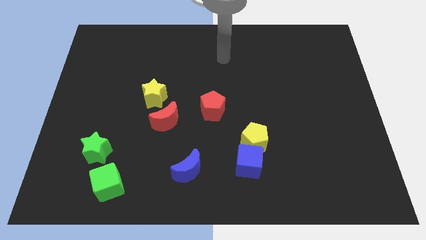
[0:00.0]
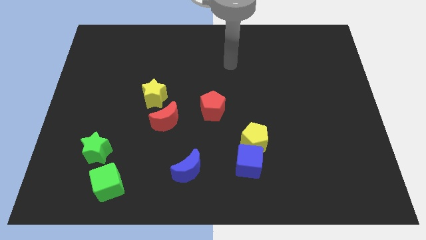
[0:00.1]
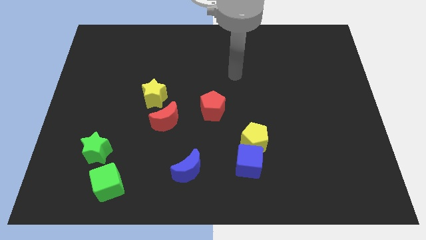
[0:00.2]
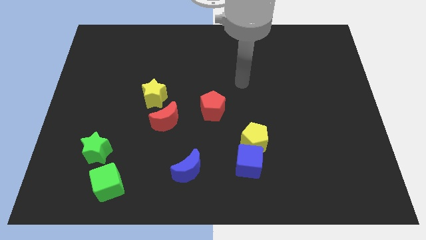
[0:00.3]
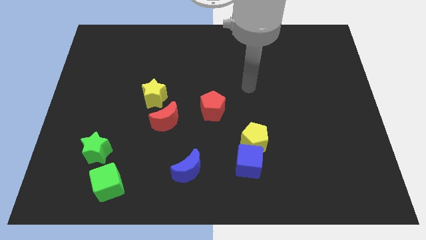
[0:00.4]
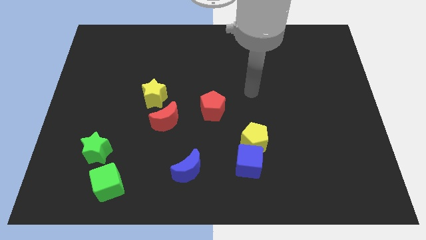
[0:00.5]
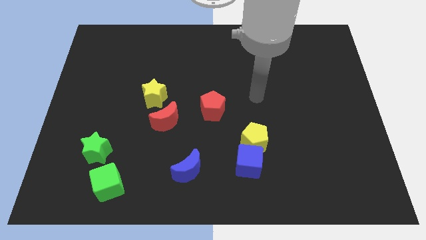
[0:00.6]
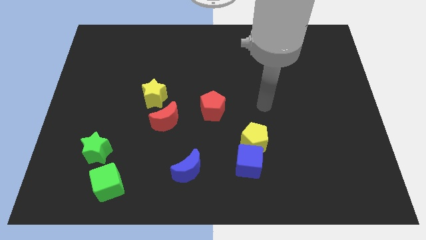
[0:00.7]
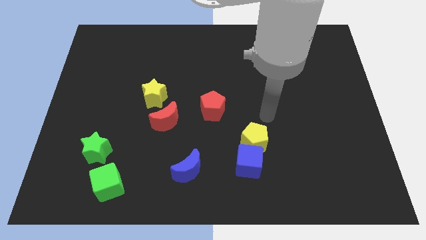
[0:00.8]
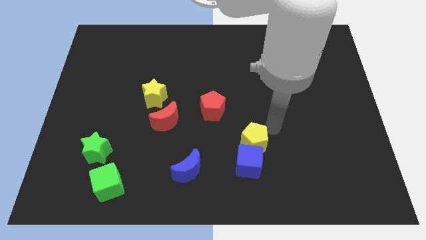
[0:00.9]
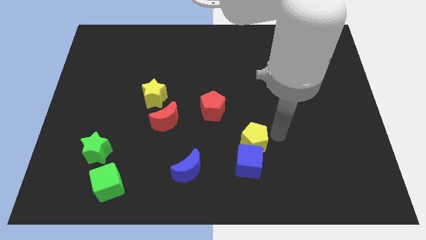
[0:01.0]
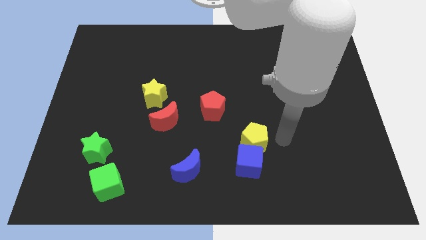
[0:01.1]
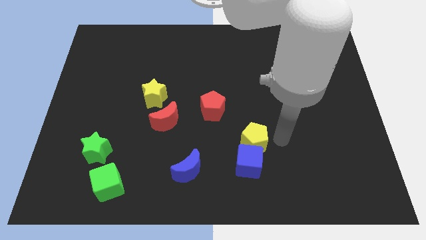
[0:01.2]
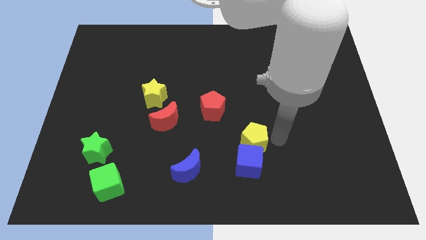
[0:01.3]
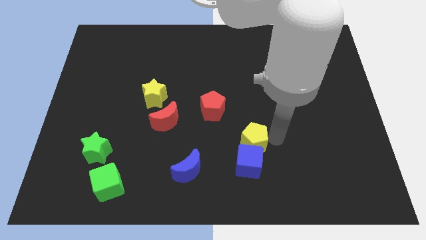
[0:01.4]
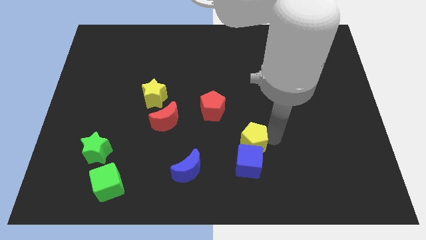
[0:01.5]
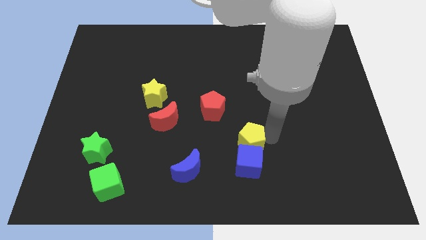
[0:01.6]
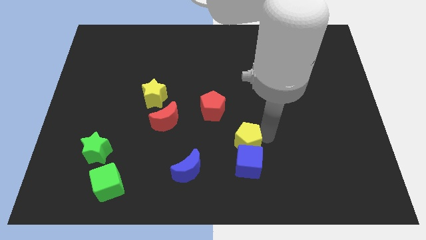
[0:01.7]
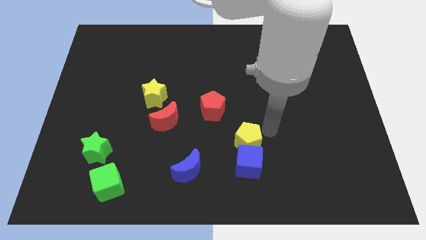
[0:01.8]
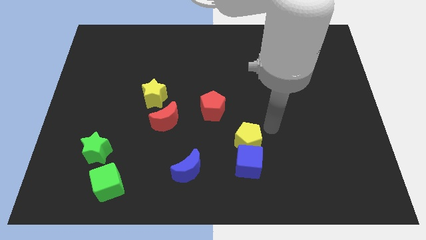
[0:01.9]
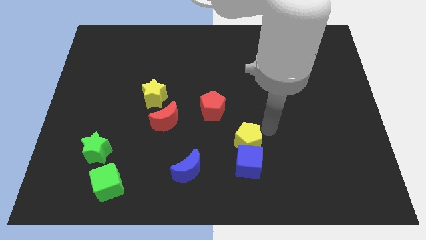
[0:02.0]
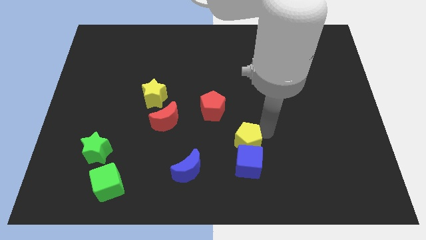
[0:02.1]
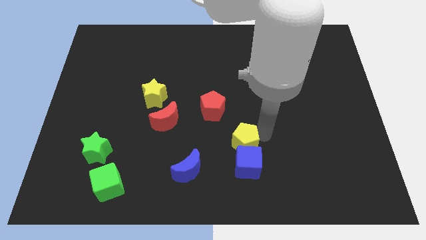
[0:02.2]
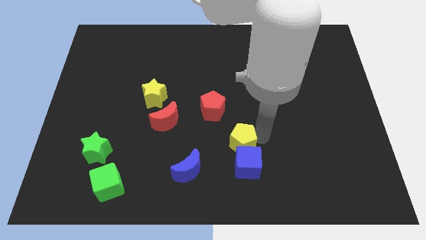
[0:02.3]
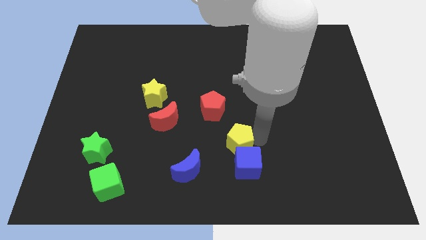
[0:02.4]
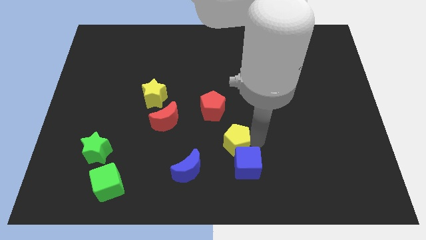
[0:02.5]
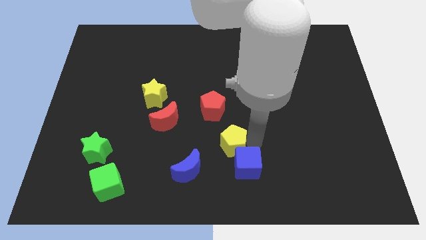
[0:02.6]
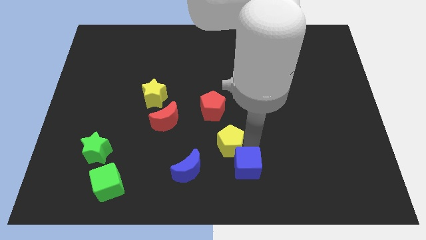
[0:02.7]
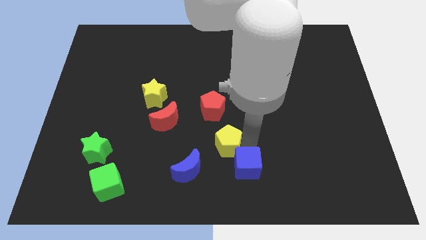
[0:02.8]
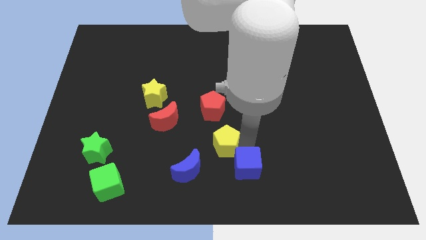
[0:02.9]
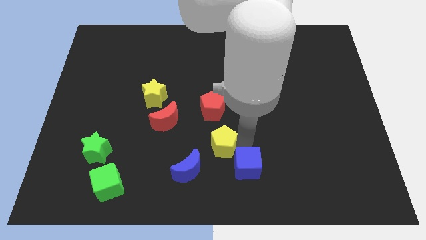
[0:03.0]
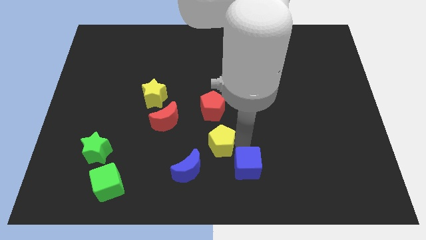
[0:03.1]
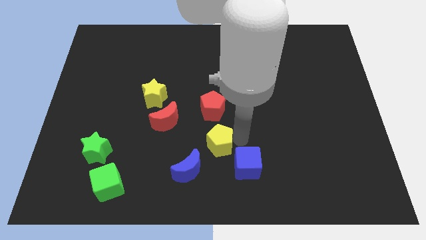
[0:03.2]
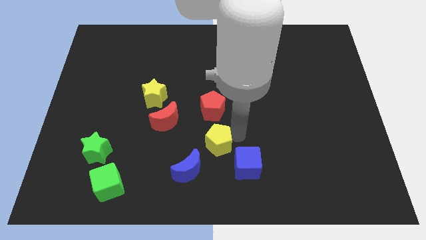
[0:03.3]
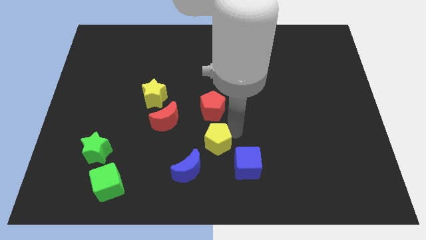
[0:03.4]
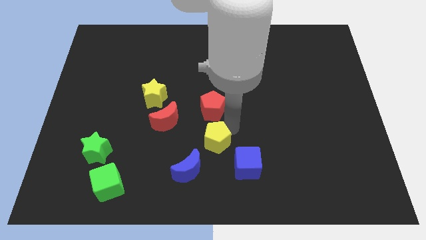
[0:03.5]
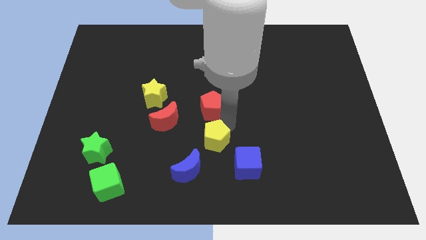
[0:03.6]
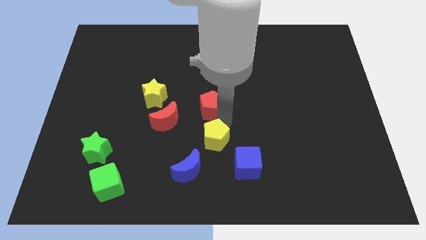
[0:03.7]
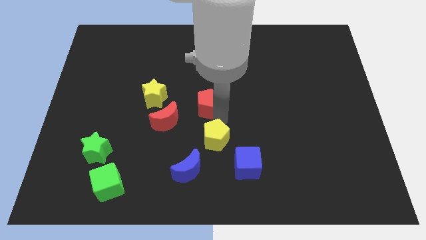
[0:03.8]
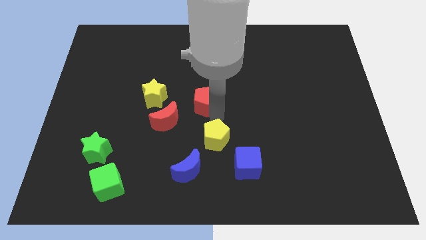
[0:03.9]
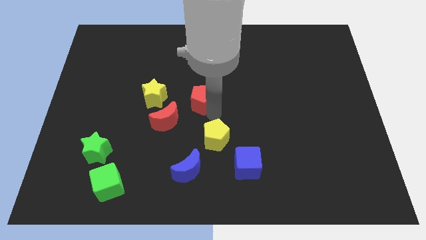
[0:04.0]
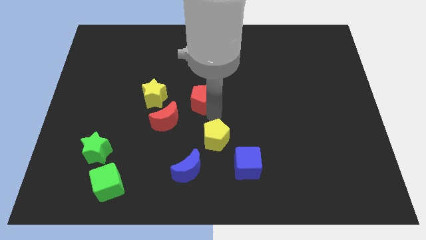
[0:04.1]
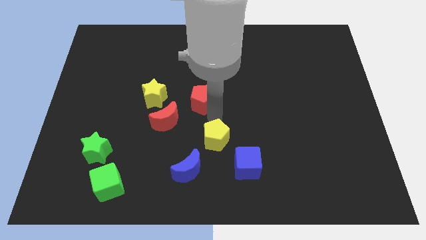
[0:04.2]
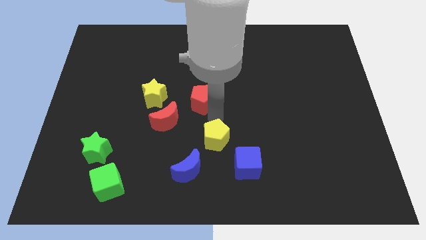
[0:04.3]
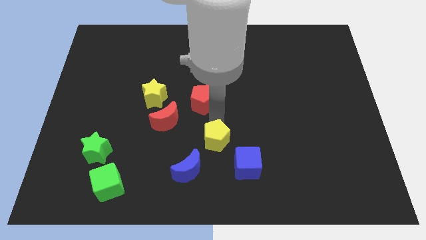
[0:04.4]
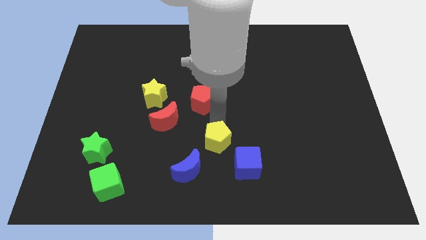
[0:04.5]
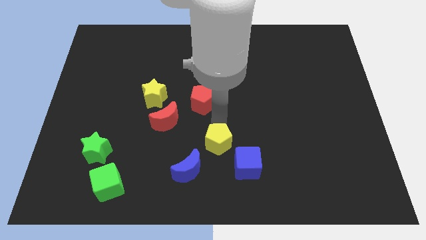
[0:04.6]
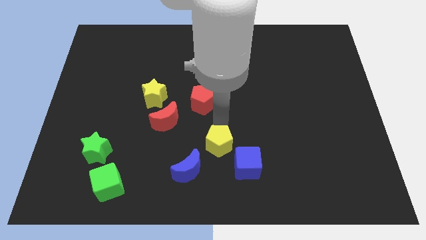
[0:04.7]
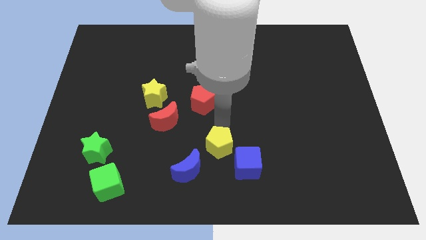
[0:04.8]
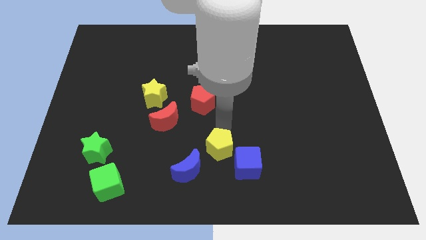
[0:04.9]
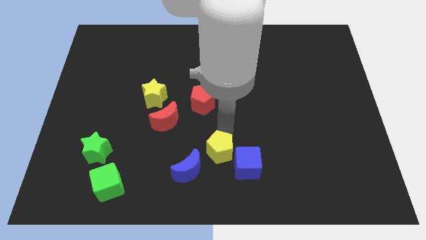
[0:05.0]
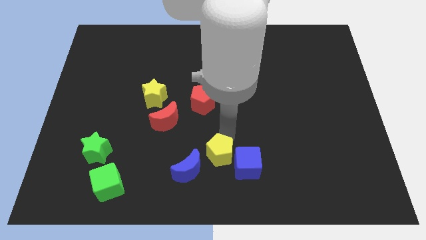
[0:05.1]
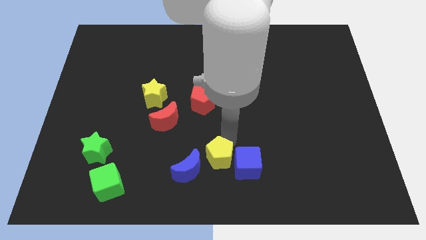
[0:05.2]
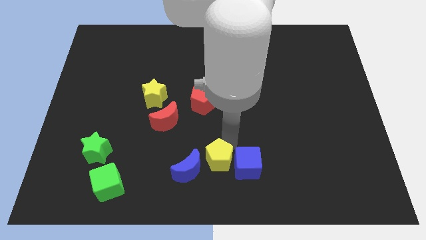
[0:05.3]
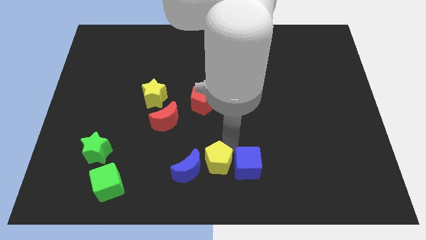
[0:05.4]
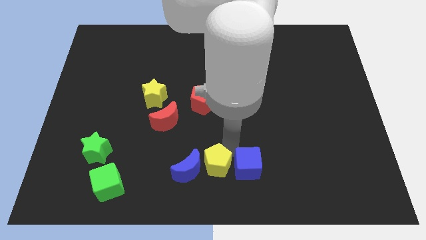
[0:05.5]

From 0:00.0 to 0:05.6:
push the yellow pentagon towards the blue moon

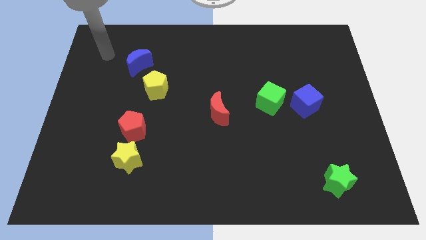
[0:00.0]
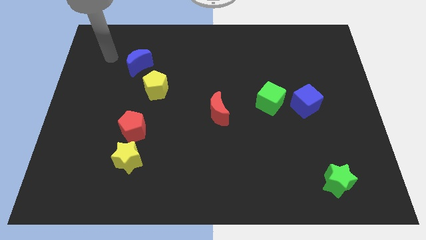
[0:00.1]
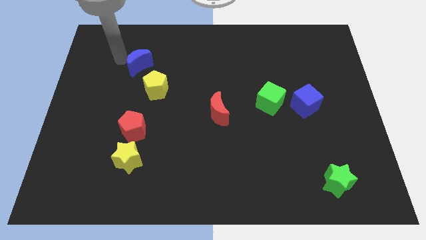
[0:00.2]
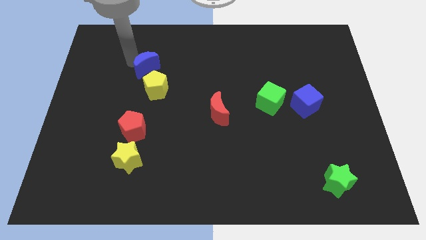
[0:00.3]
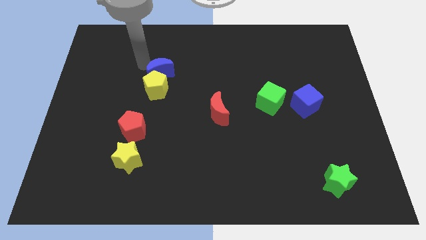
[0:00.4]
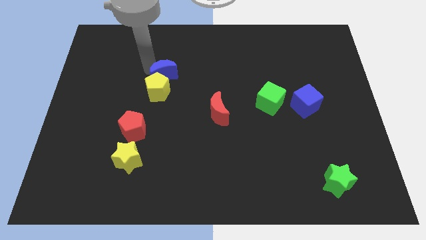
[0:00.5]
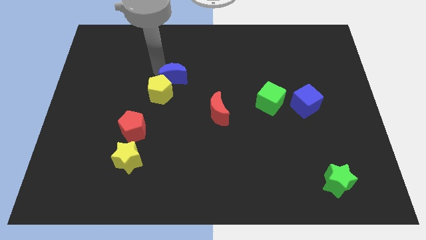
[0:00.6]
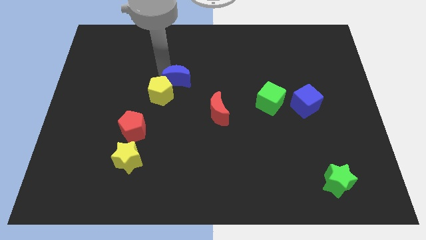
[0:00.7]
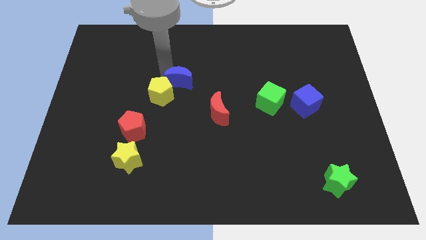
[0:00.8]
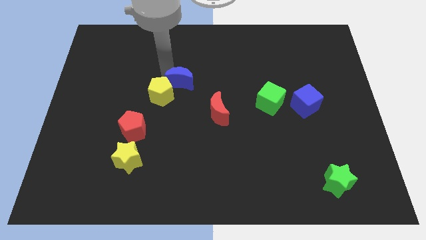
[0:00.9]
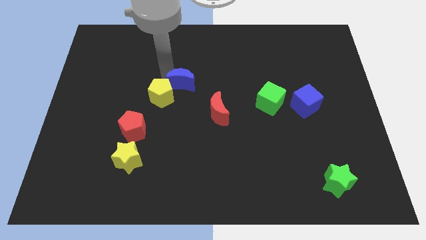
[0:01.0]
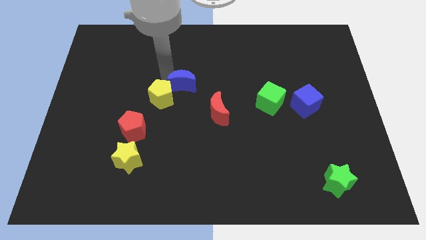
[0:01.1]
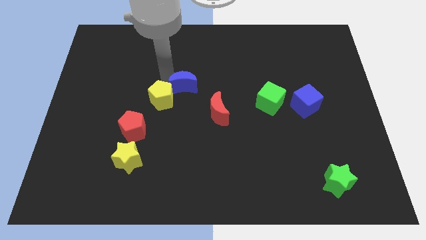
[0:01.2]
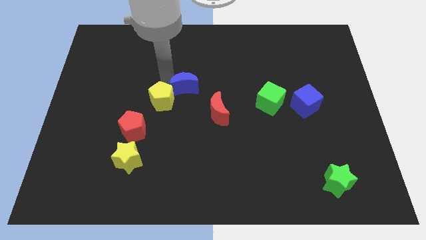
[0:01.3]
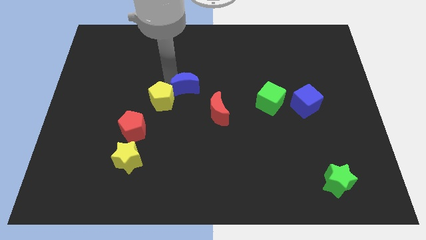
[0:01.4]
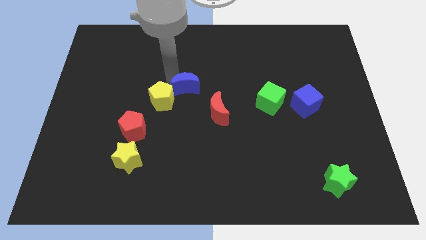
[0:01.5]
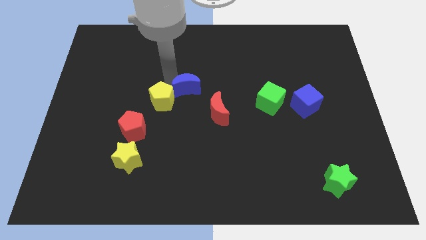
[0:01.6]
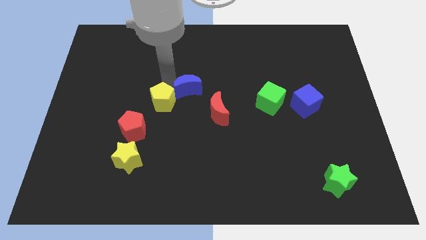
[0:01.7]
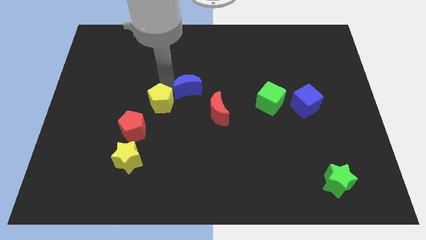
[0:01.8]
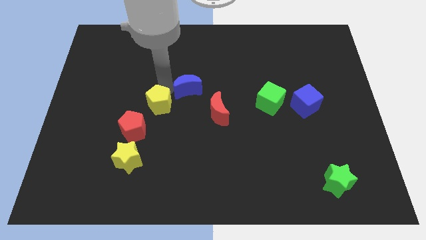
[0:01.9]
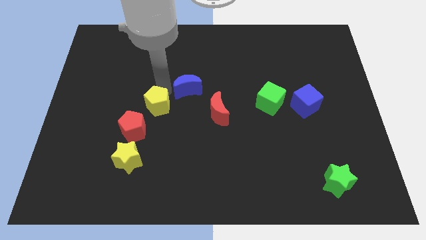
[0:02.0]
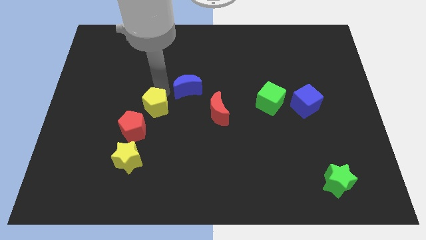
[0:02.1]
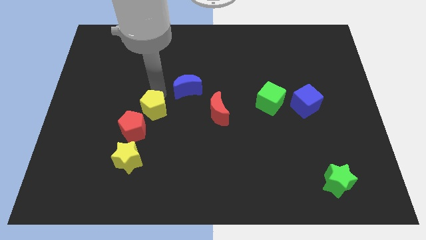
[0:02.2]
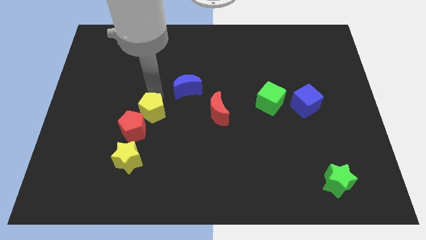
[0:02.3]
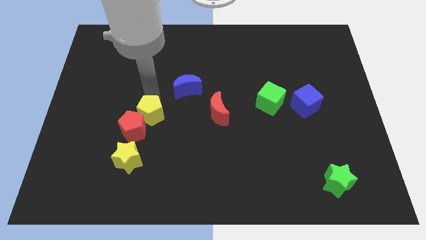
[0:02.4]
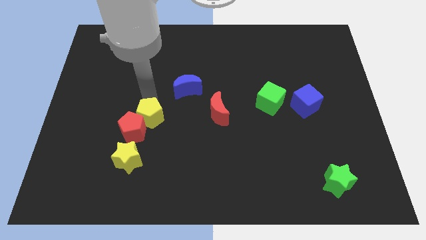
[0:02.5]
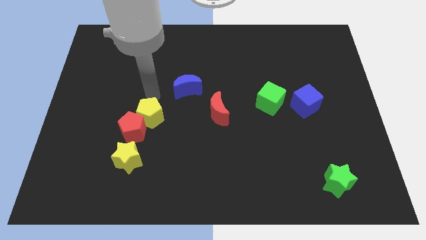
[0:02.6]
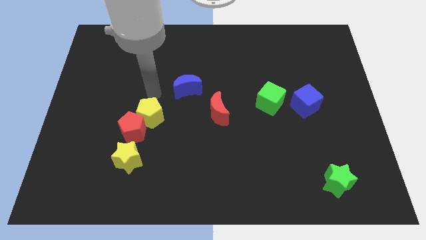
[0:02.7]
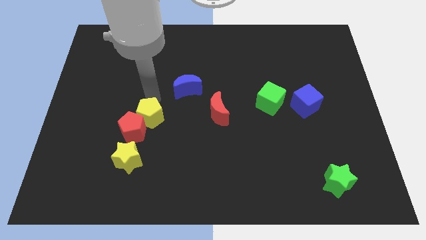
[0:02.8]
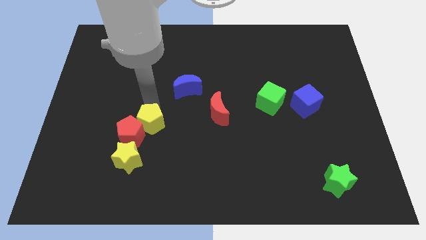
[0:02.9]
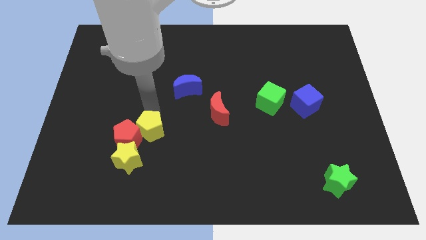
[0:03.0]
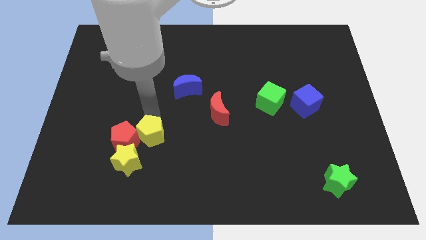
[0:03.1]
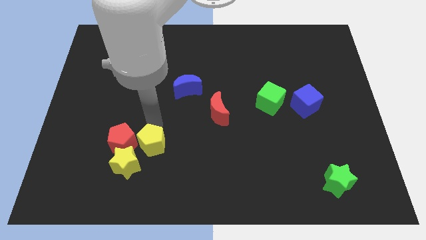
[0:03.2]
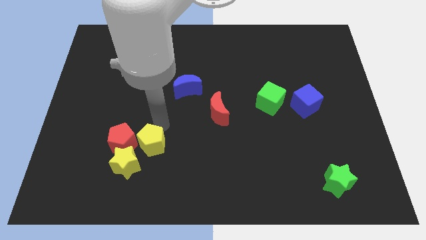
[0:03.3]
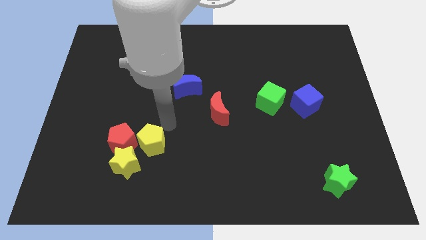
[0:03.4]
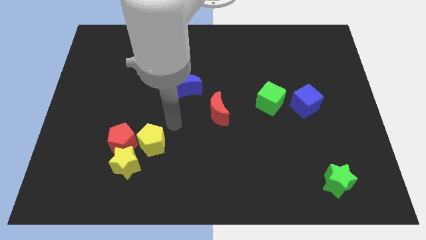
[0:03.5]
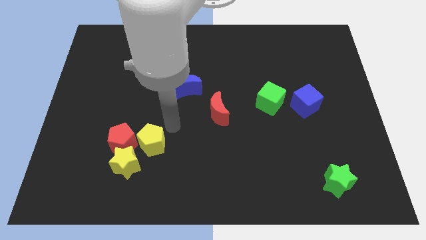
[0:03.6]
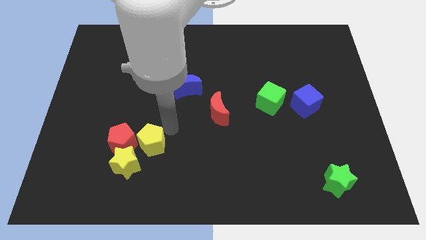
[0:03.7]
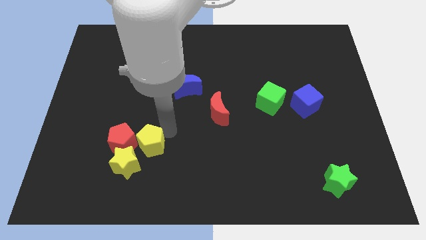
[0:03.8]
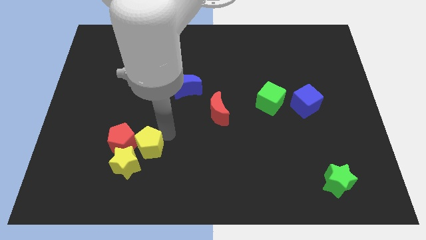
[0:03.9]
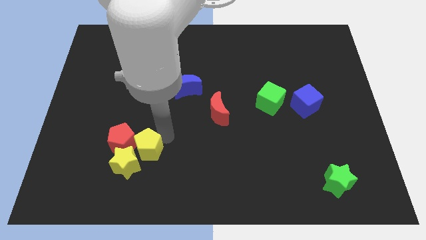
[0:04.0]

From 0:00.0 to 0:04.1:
move the yellow pentagon towards the yellow star
